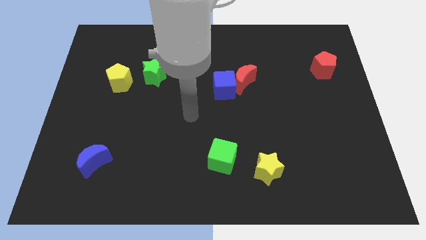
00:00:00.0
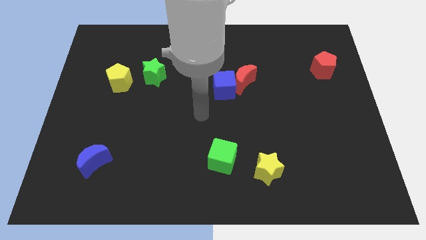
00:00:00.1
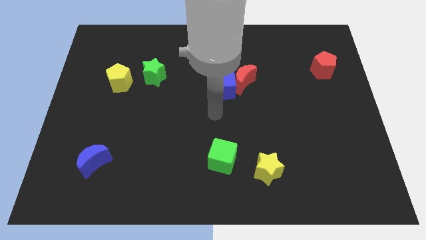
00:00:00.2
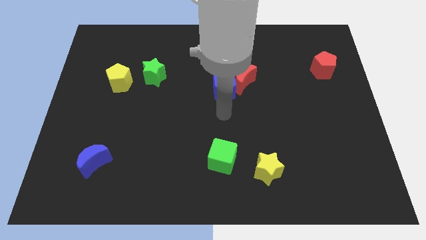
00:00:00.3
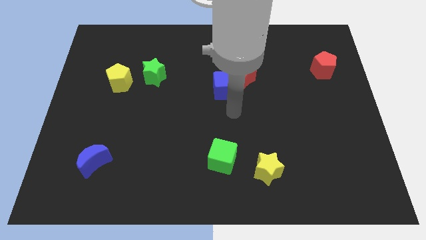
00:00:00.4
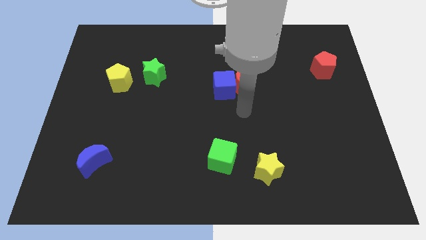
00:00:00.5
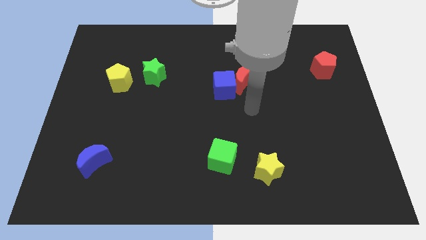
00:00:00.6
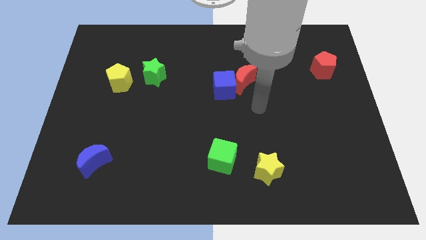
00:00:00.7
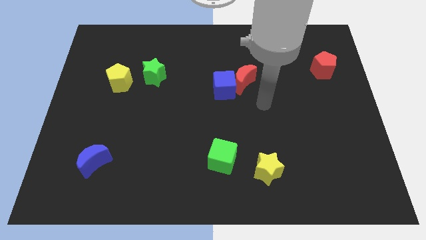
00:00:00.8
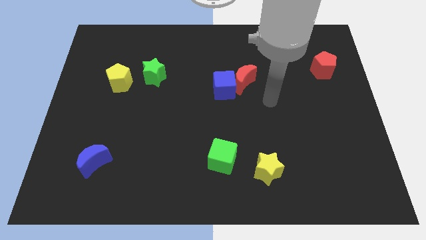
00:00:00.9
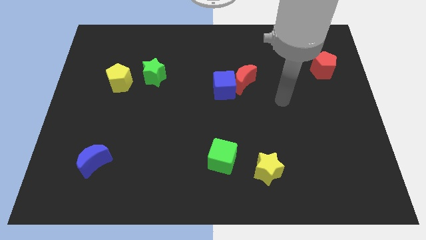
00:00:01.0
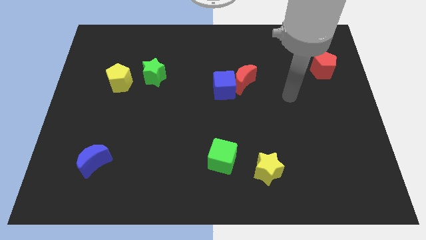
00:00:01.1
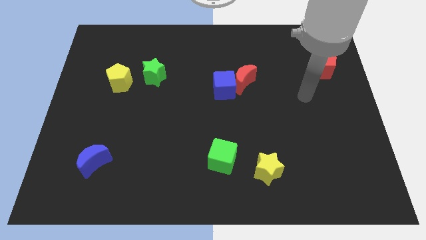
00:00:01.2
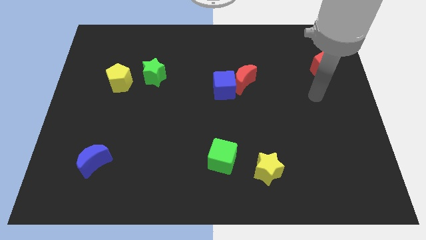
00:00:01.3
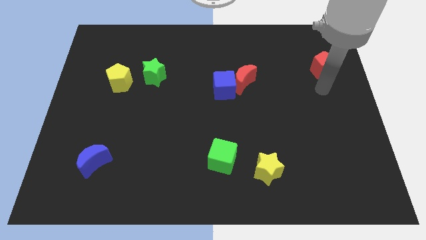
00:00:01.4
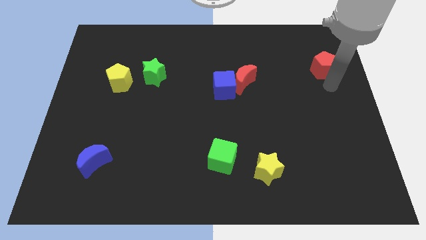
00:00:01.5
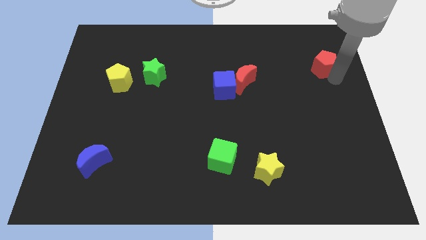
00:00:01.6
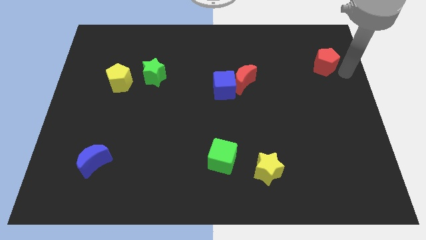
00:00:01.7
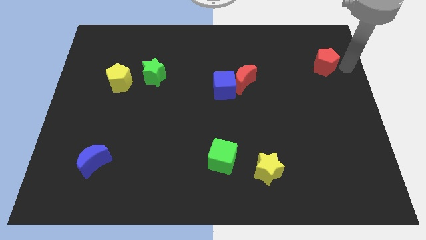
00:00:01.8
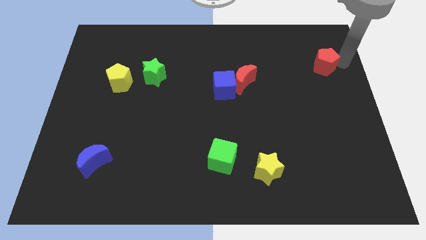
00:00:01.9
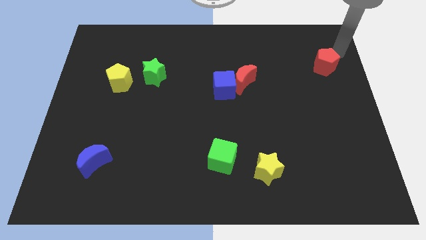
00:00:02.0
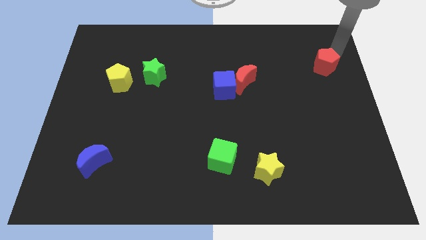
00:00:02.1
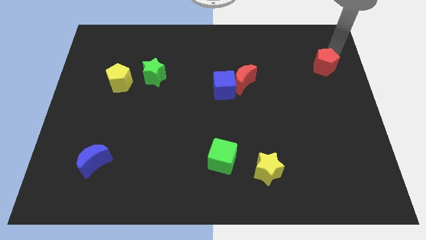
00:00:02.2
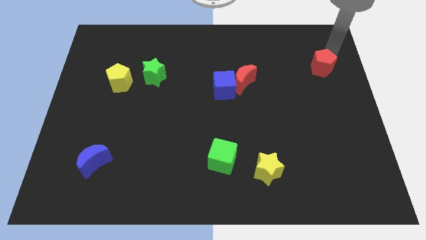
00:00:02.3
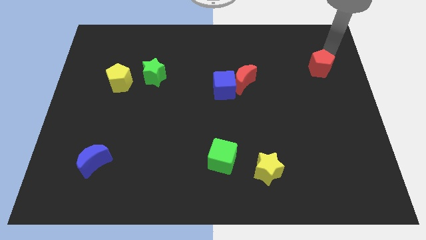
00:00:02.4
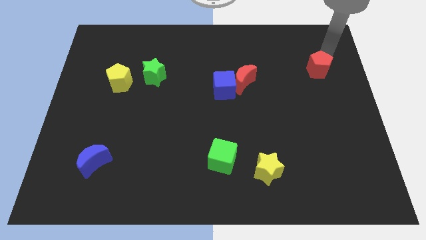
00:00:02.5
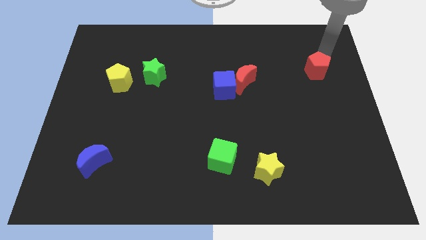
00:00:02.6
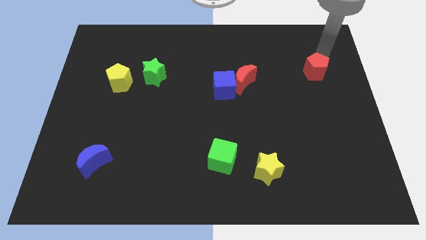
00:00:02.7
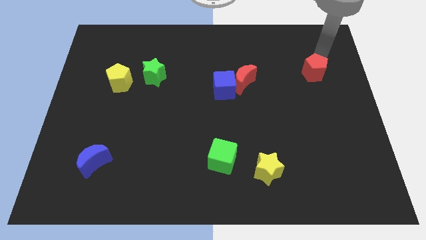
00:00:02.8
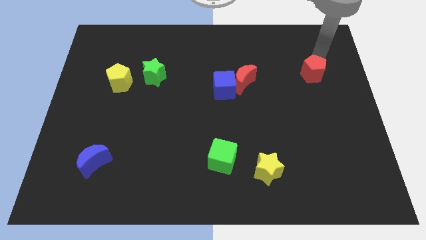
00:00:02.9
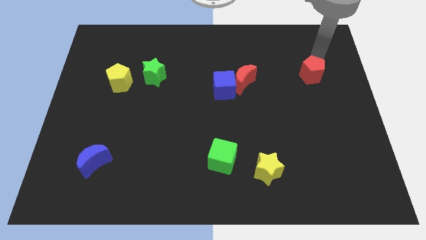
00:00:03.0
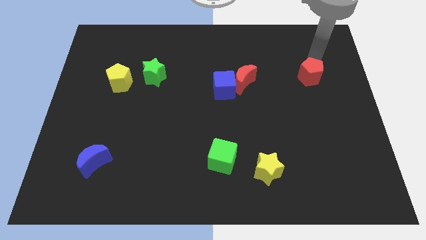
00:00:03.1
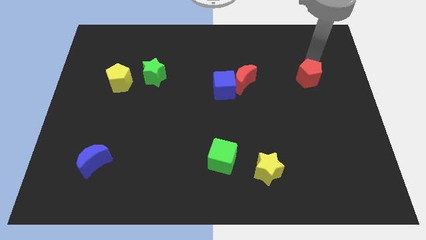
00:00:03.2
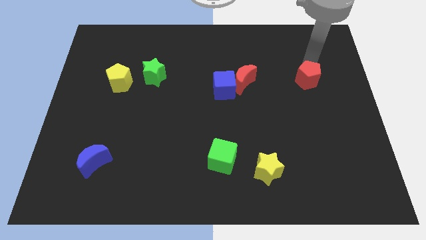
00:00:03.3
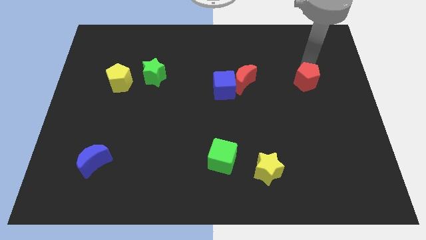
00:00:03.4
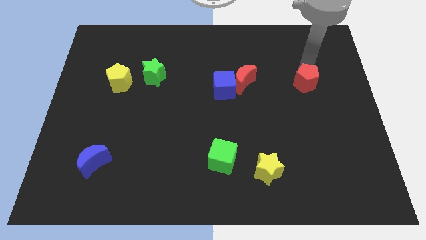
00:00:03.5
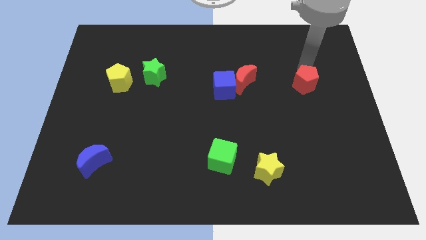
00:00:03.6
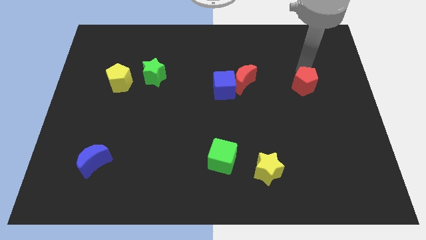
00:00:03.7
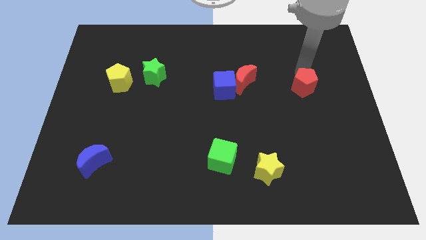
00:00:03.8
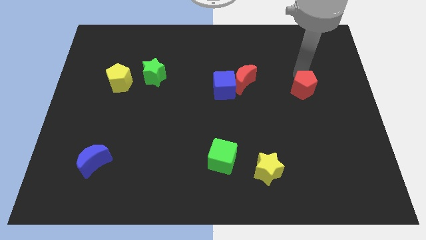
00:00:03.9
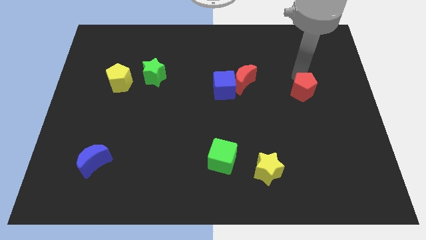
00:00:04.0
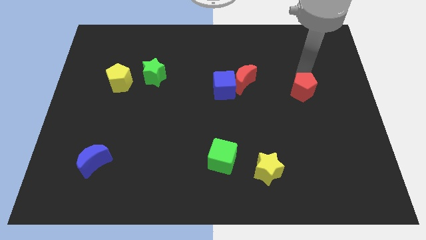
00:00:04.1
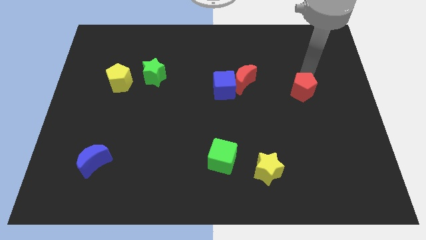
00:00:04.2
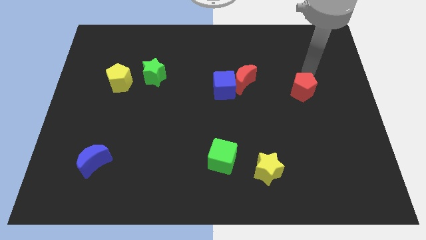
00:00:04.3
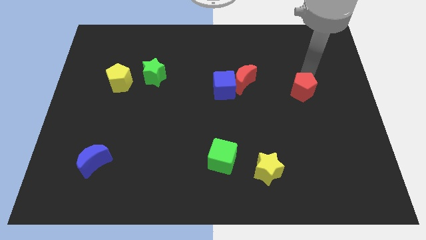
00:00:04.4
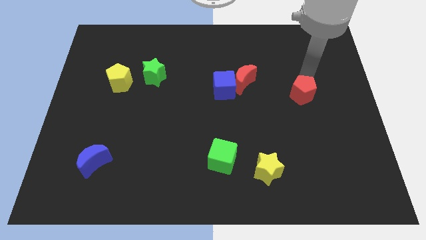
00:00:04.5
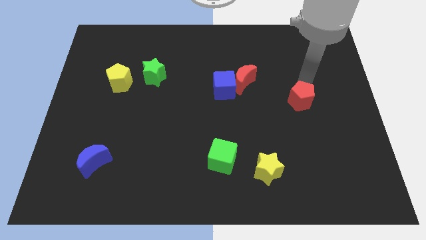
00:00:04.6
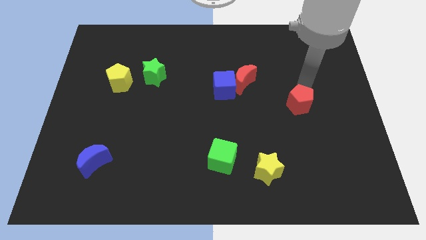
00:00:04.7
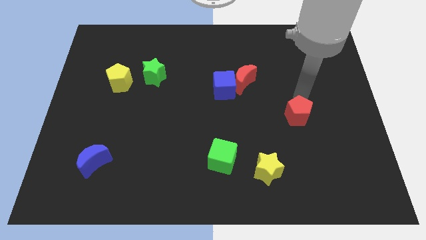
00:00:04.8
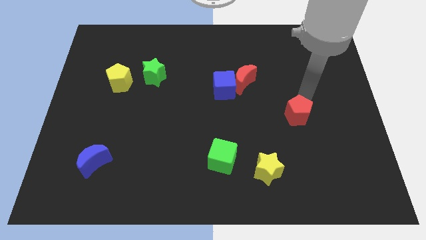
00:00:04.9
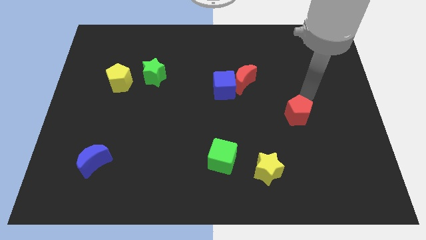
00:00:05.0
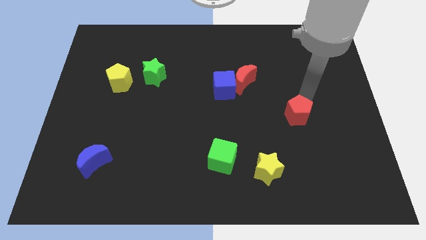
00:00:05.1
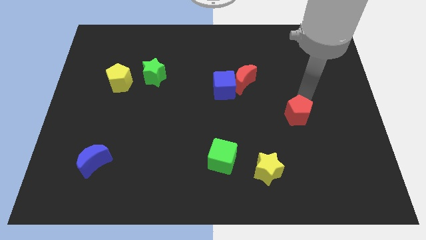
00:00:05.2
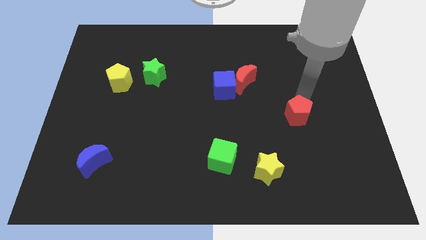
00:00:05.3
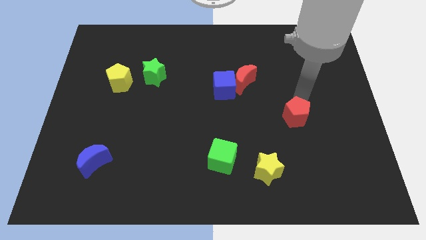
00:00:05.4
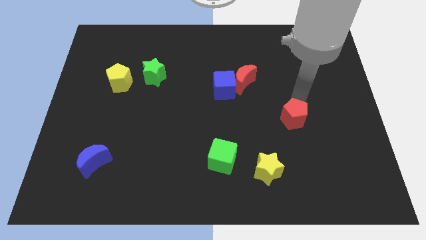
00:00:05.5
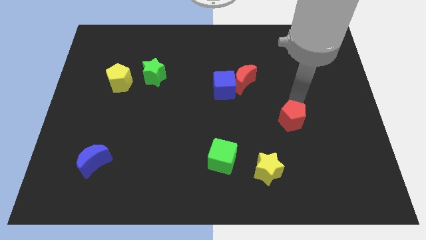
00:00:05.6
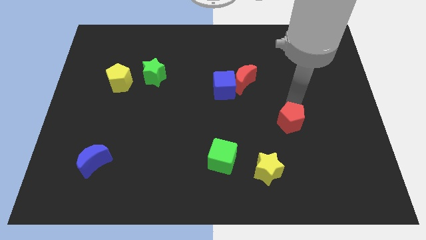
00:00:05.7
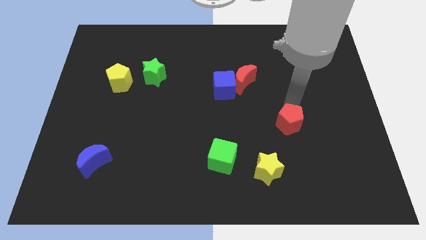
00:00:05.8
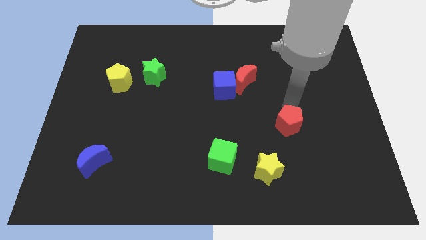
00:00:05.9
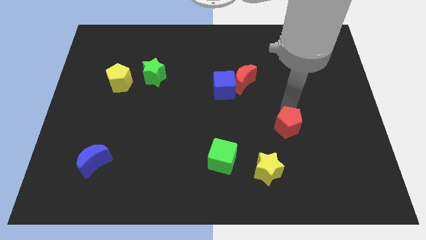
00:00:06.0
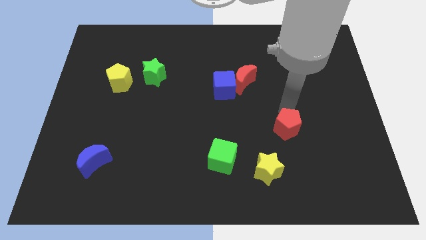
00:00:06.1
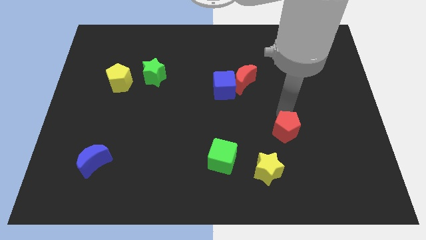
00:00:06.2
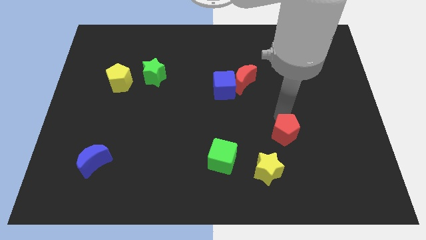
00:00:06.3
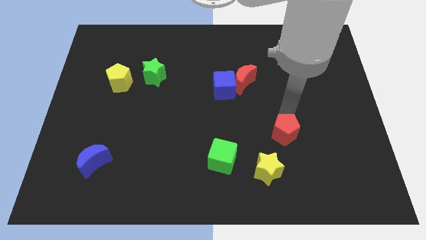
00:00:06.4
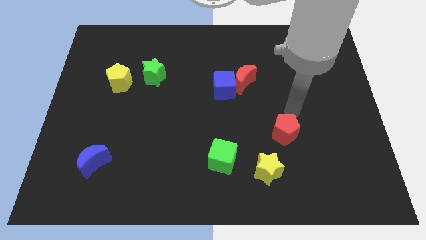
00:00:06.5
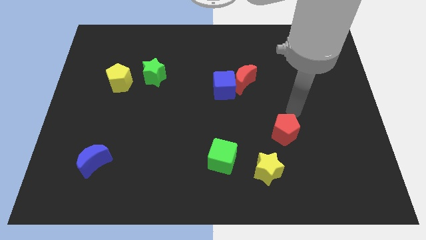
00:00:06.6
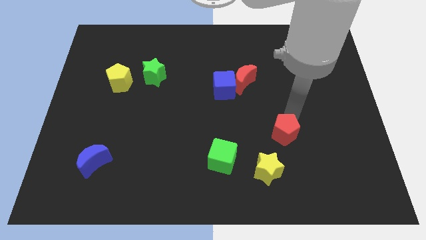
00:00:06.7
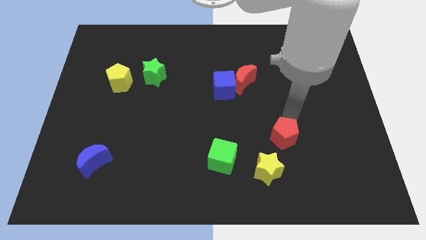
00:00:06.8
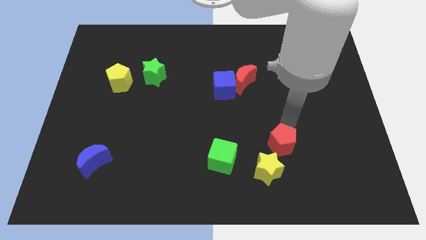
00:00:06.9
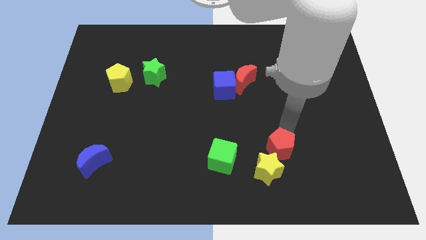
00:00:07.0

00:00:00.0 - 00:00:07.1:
put the red pentagon towards the yellow star
